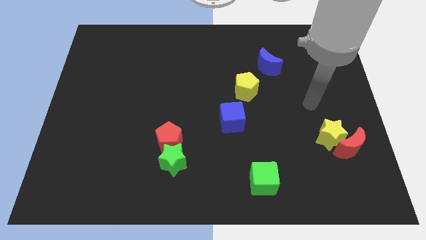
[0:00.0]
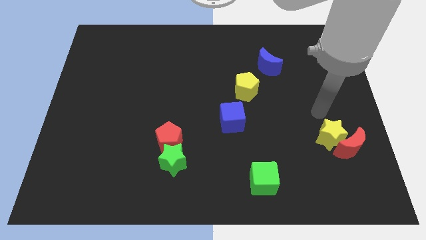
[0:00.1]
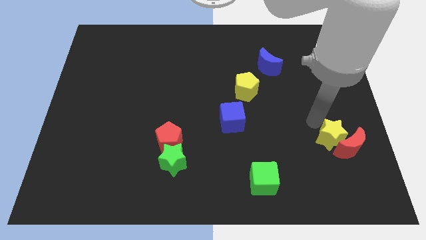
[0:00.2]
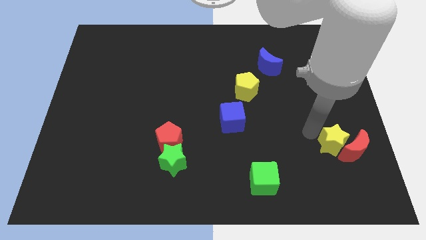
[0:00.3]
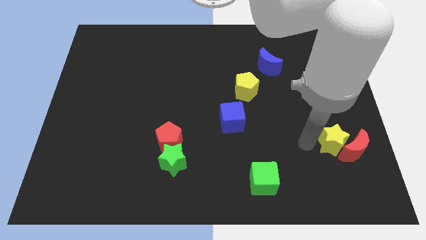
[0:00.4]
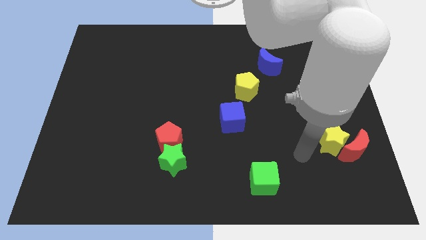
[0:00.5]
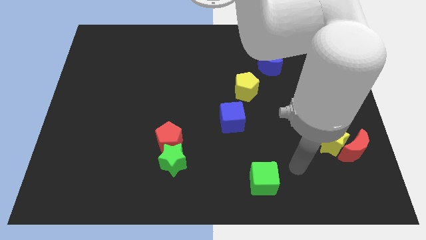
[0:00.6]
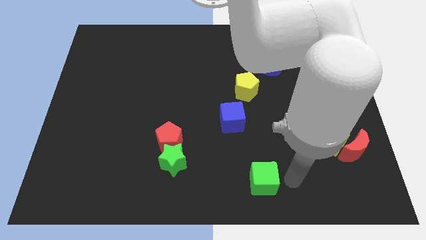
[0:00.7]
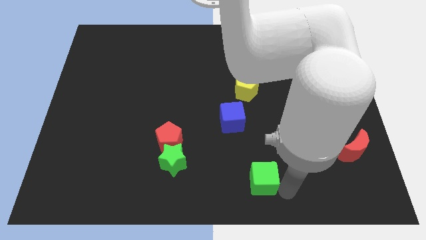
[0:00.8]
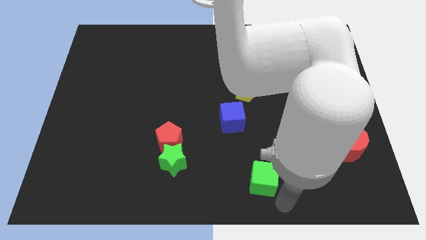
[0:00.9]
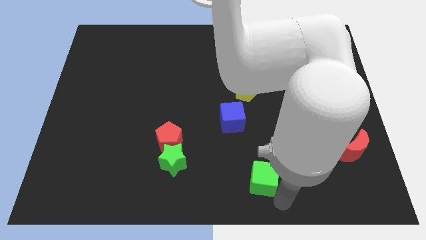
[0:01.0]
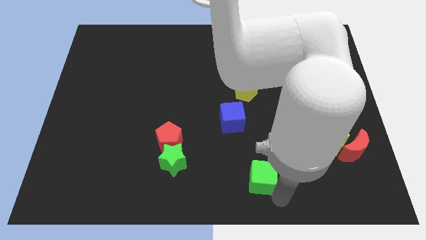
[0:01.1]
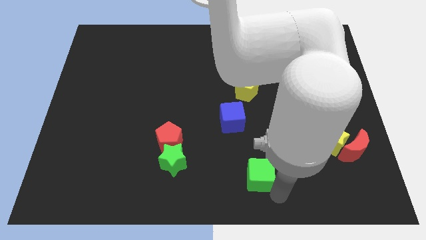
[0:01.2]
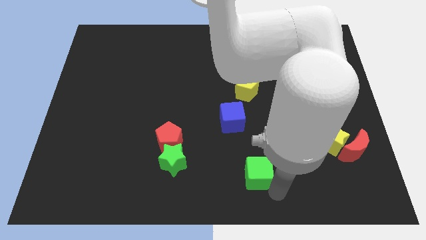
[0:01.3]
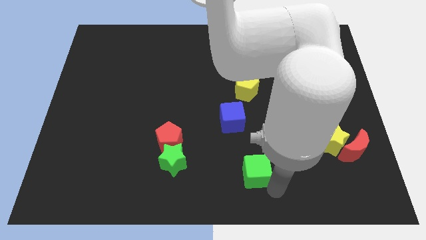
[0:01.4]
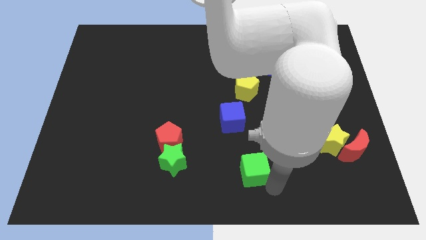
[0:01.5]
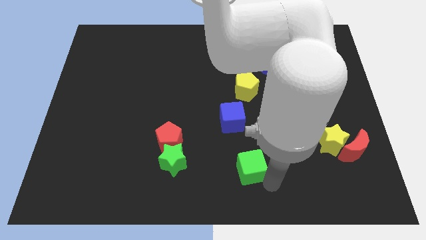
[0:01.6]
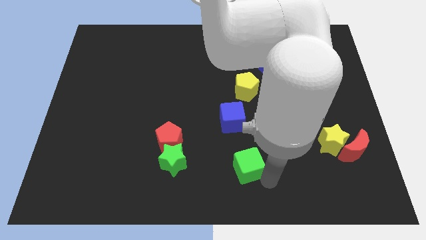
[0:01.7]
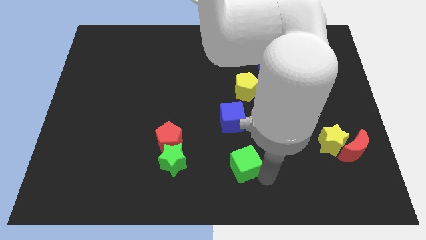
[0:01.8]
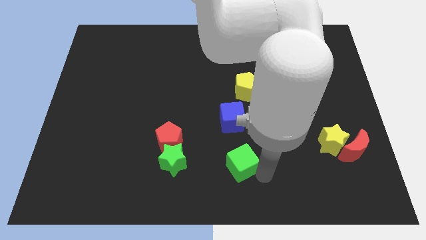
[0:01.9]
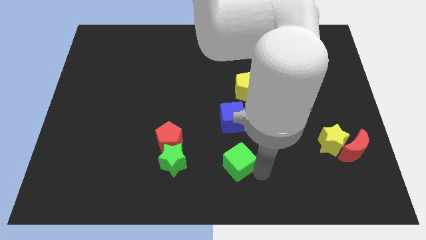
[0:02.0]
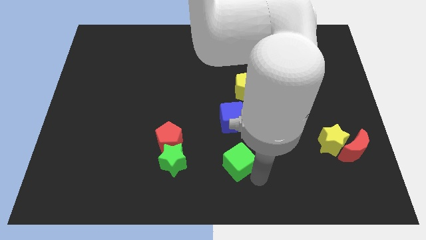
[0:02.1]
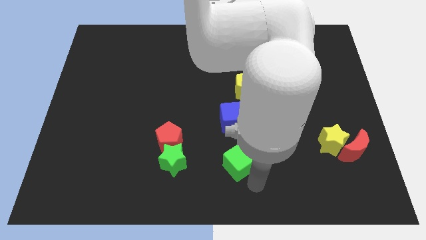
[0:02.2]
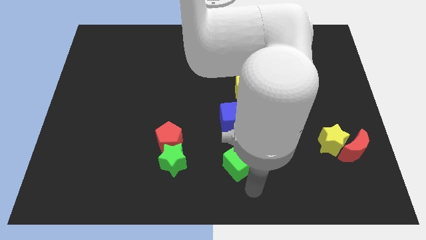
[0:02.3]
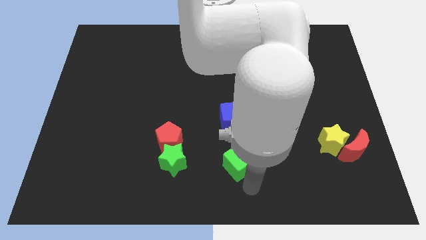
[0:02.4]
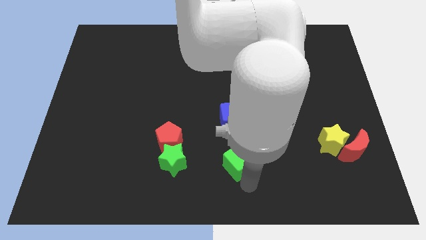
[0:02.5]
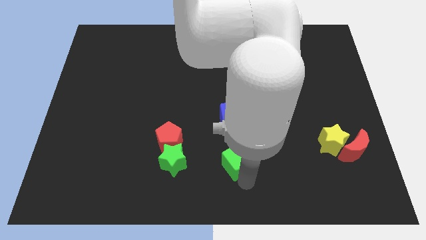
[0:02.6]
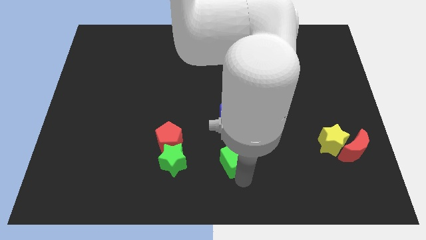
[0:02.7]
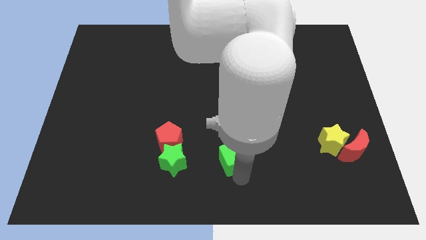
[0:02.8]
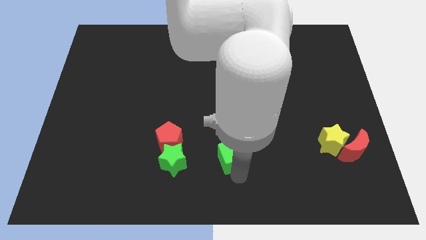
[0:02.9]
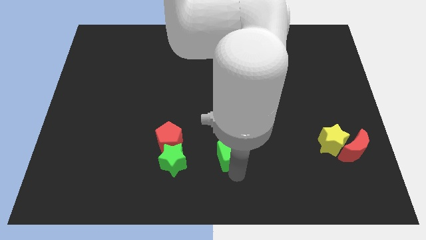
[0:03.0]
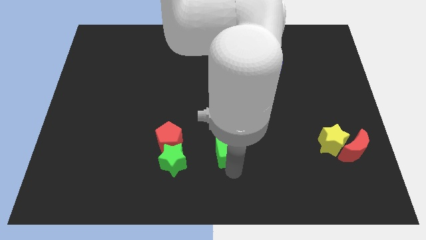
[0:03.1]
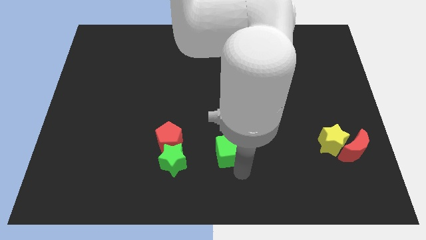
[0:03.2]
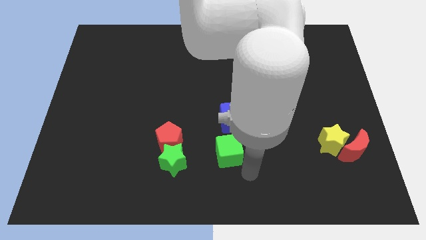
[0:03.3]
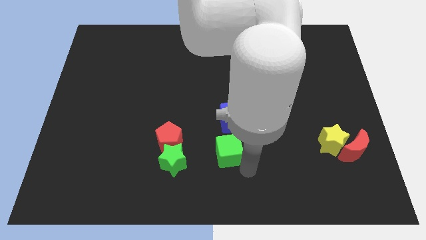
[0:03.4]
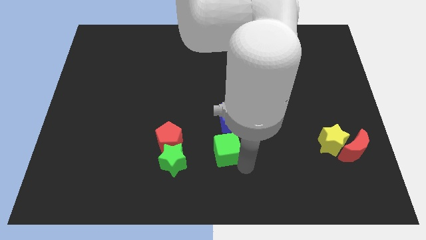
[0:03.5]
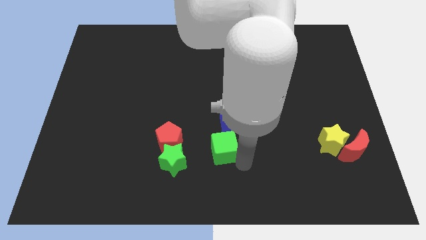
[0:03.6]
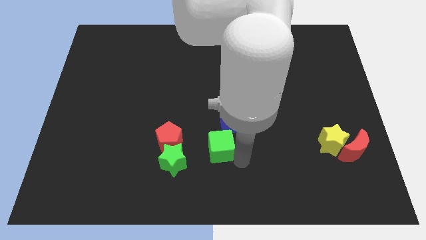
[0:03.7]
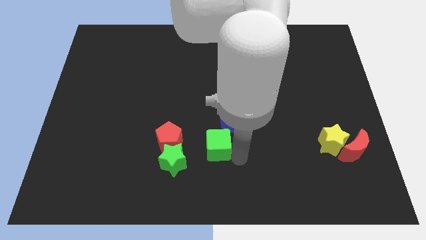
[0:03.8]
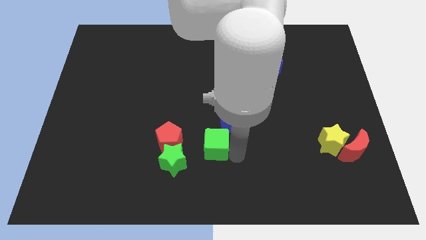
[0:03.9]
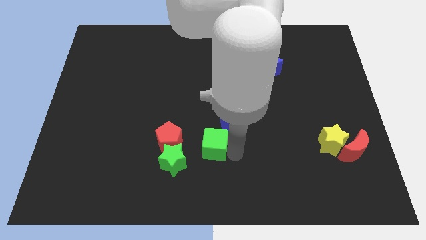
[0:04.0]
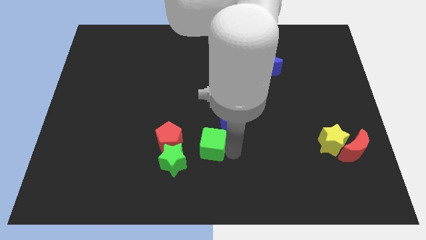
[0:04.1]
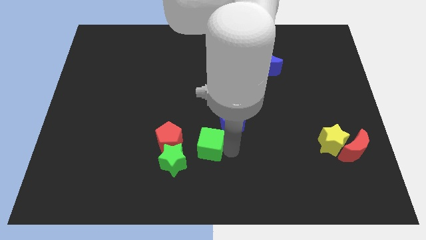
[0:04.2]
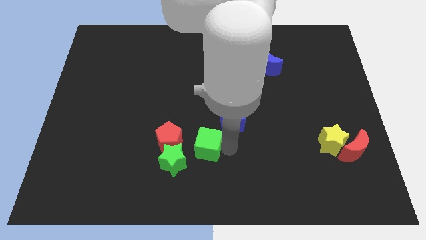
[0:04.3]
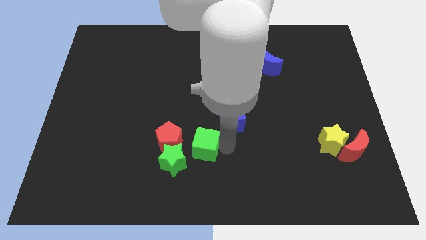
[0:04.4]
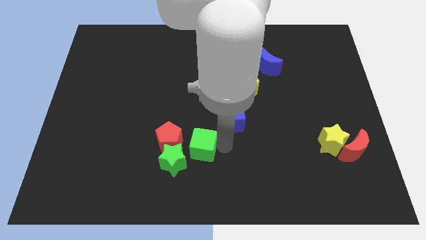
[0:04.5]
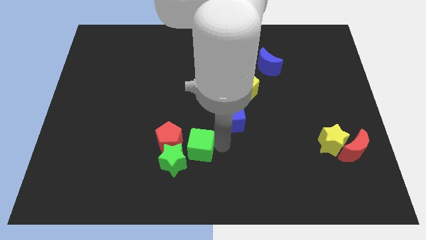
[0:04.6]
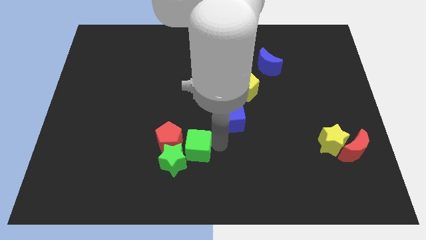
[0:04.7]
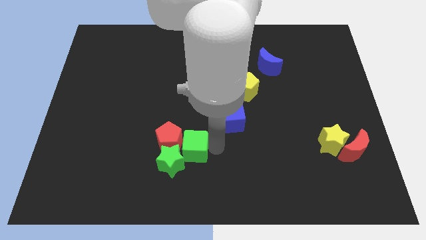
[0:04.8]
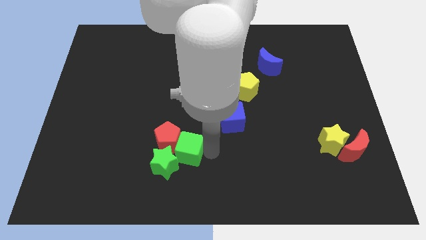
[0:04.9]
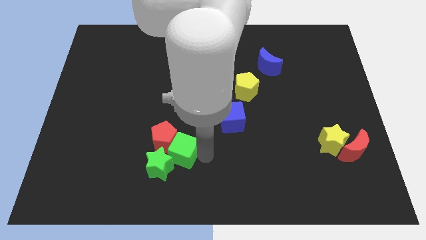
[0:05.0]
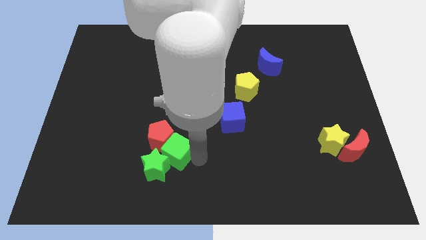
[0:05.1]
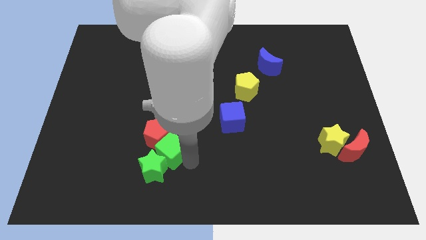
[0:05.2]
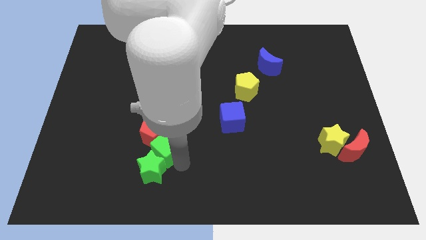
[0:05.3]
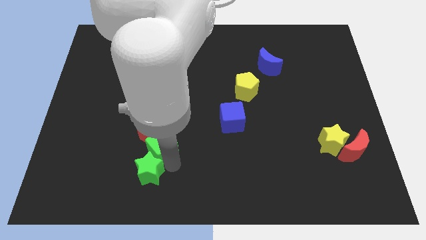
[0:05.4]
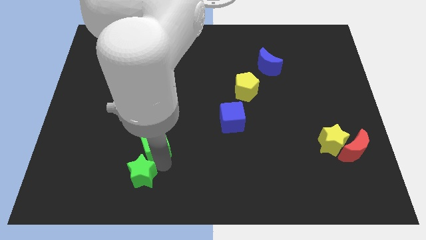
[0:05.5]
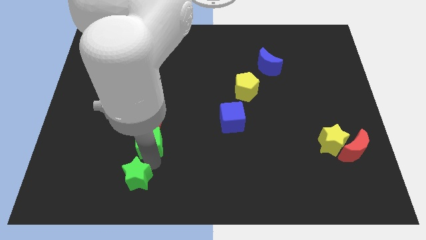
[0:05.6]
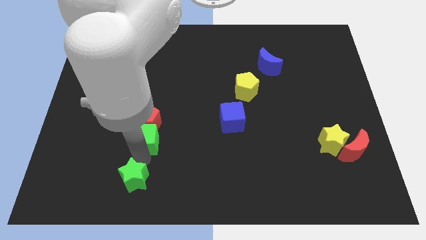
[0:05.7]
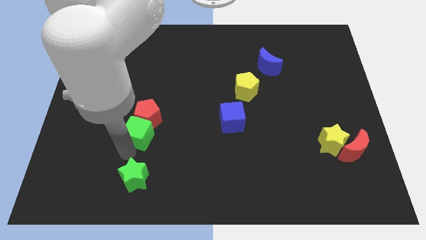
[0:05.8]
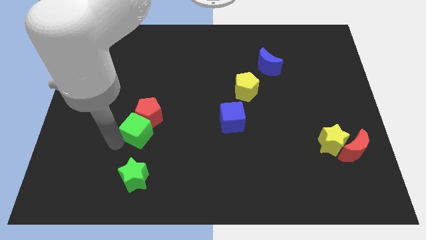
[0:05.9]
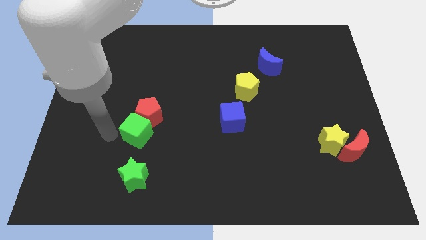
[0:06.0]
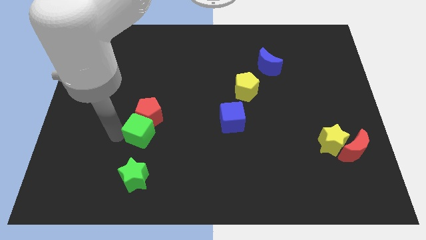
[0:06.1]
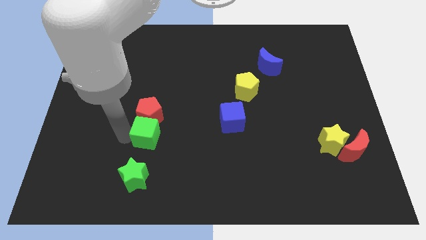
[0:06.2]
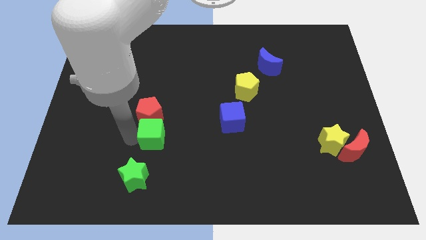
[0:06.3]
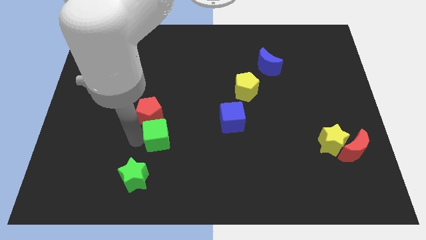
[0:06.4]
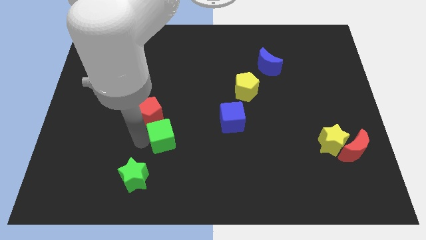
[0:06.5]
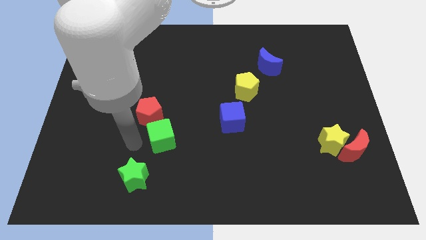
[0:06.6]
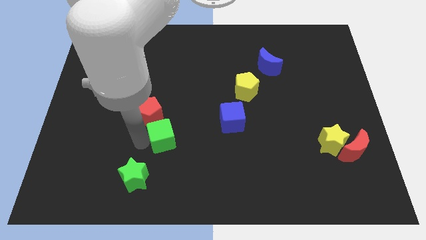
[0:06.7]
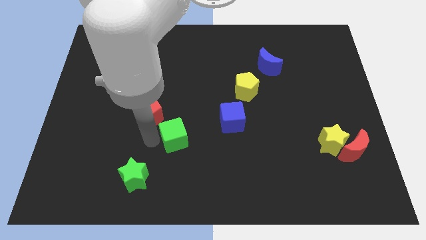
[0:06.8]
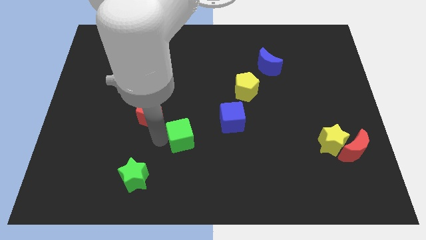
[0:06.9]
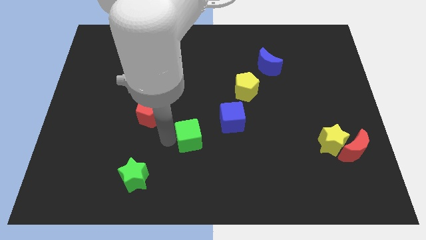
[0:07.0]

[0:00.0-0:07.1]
slide the green cube to the middle
